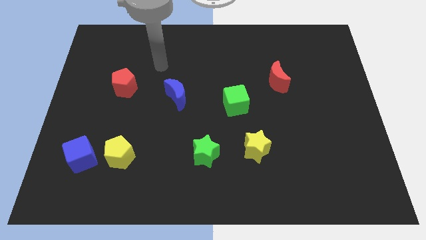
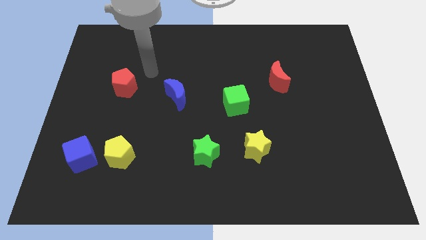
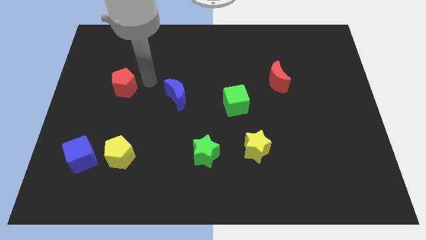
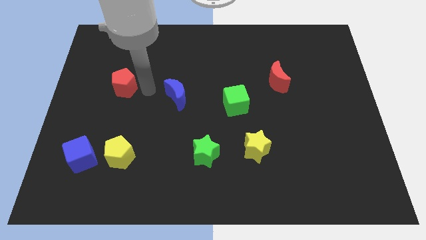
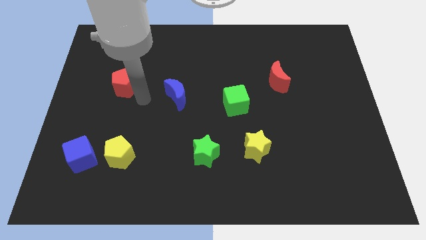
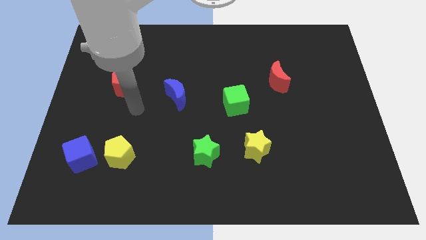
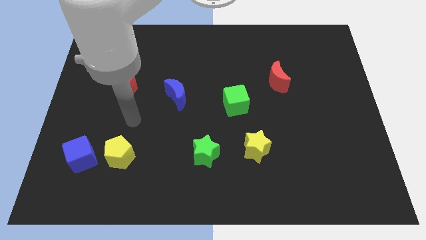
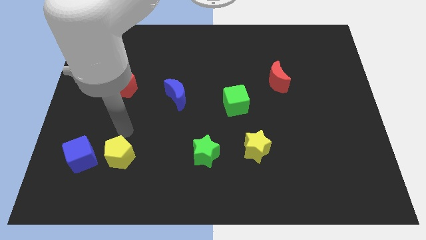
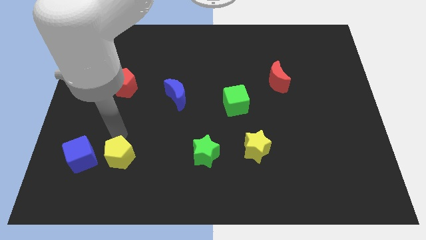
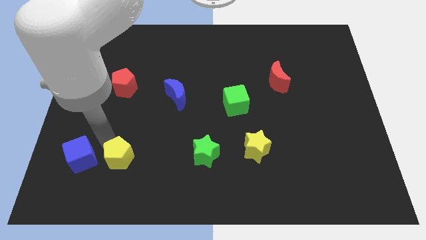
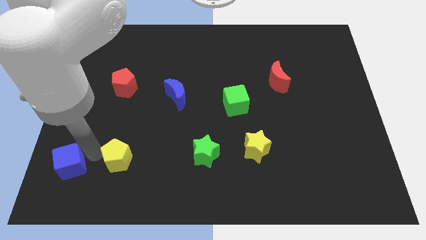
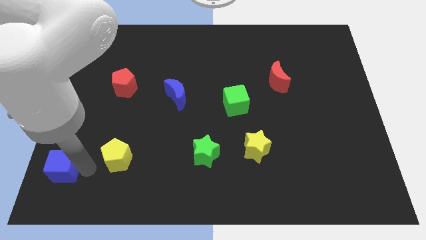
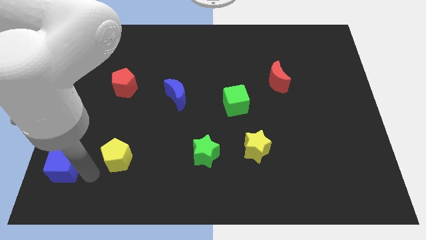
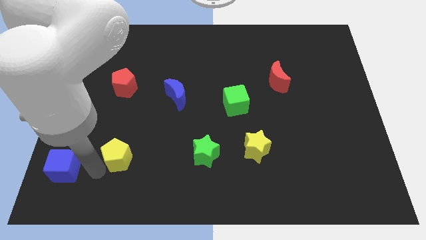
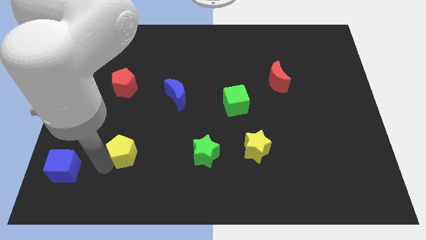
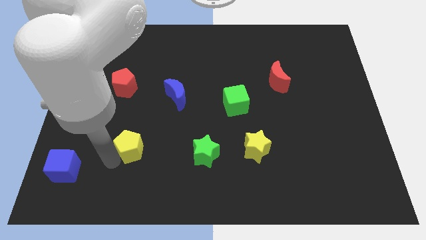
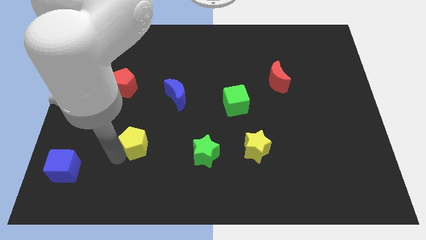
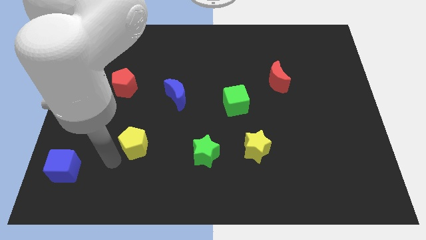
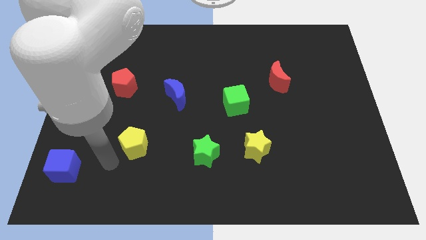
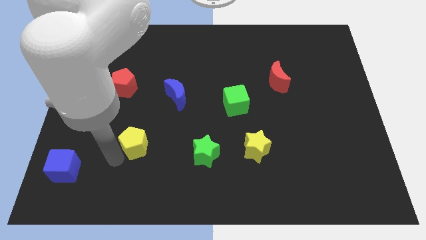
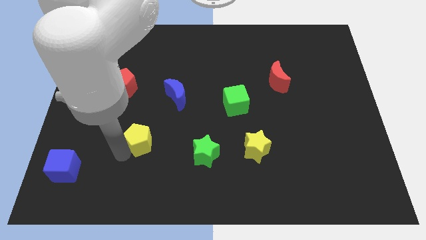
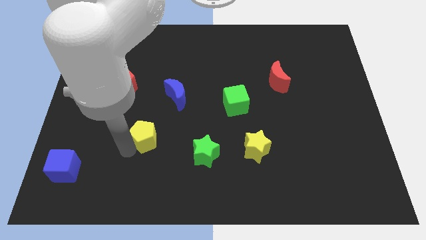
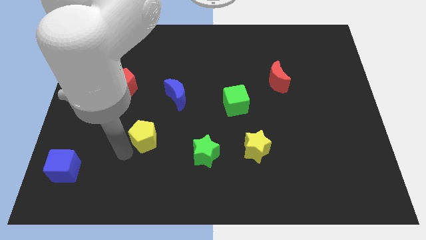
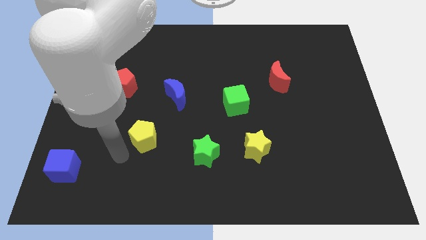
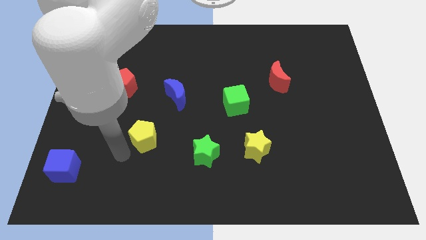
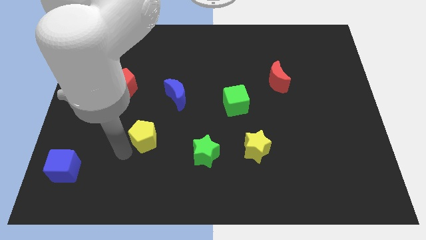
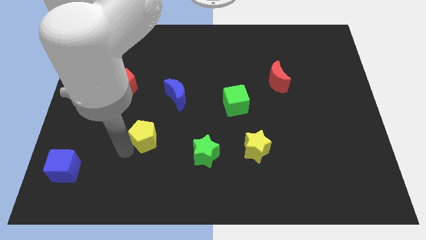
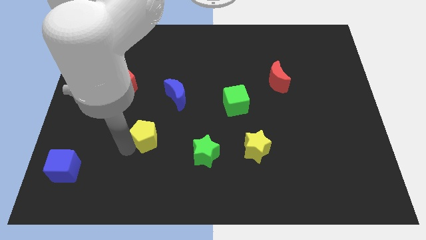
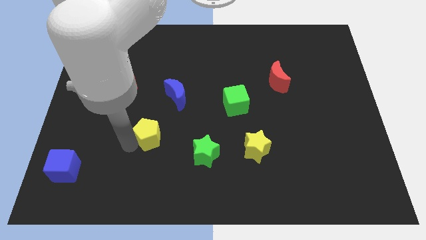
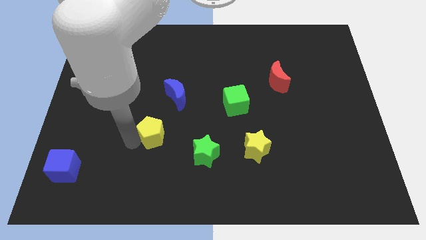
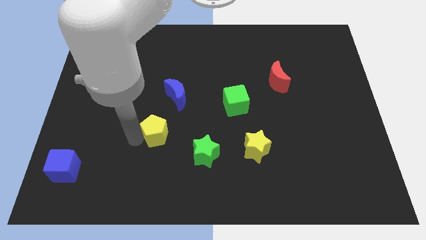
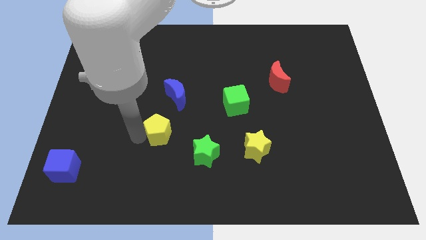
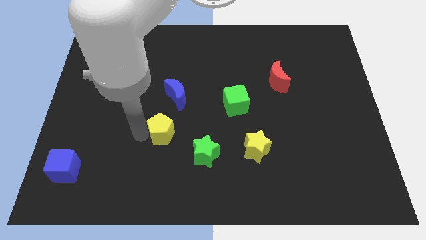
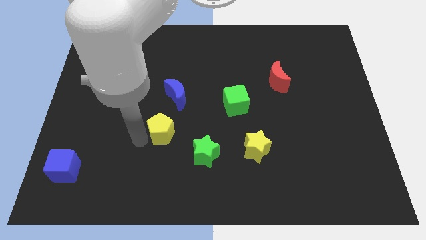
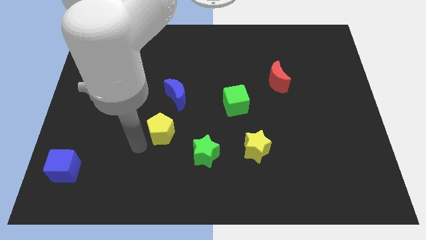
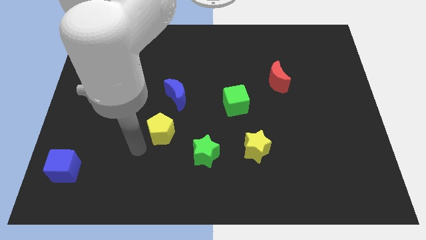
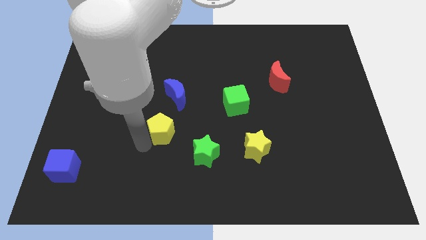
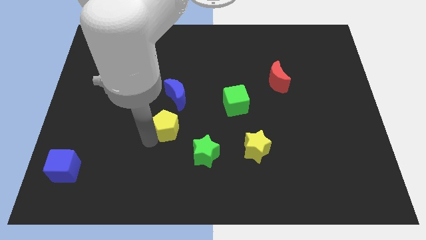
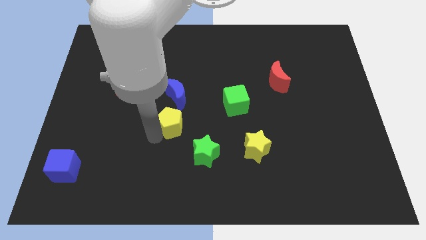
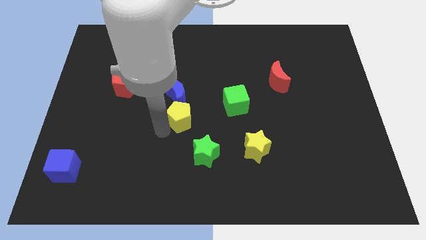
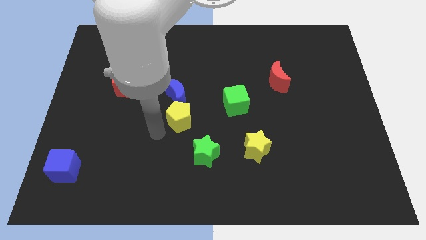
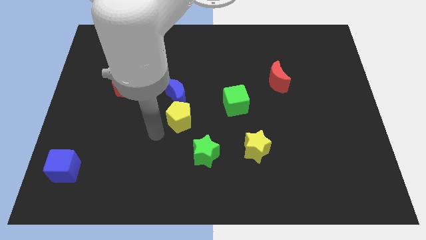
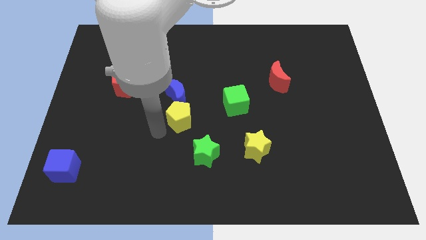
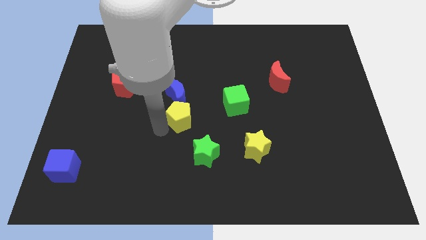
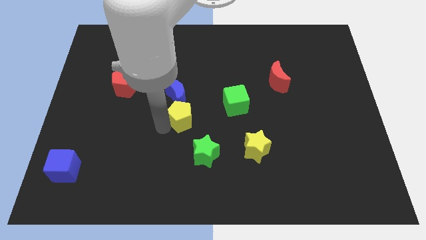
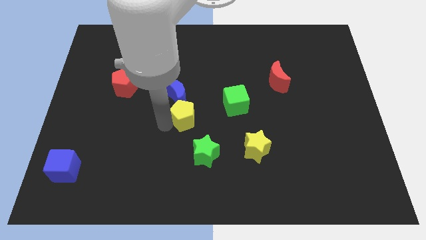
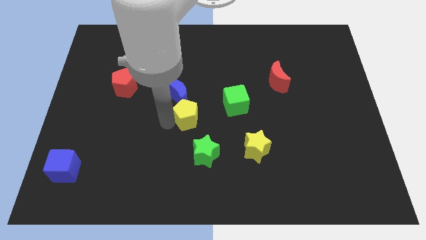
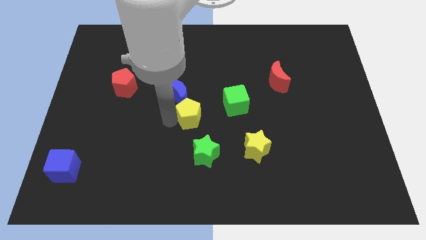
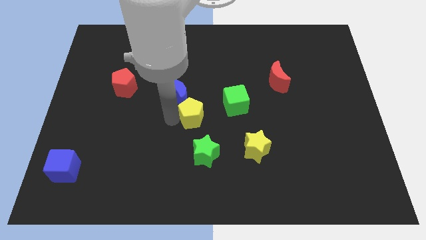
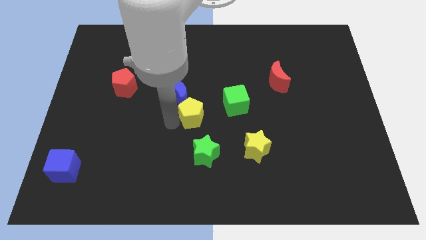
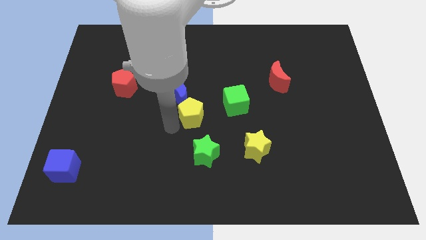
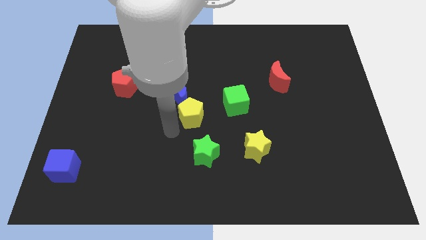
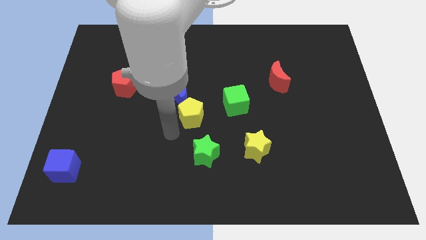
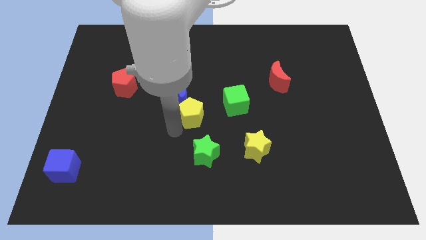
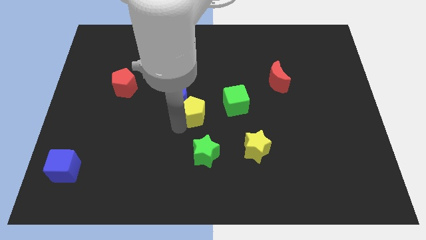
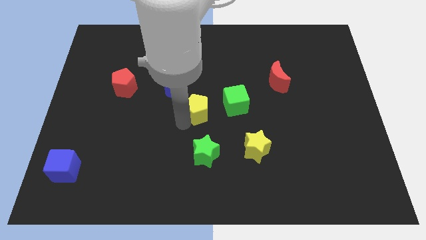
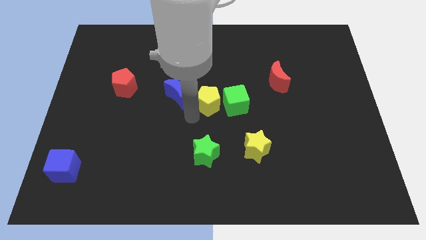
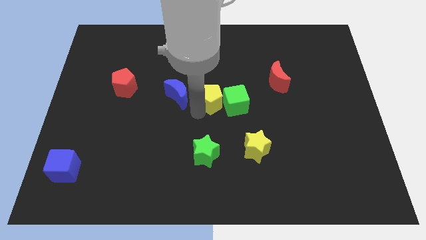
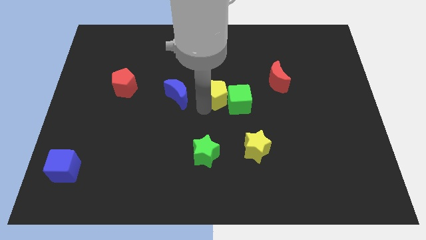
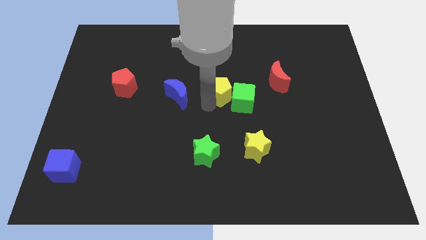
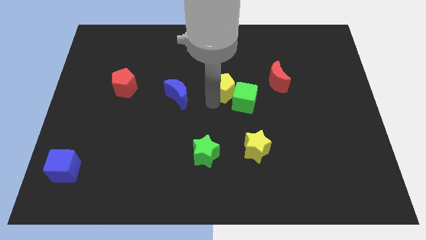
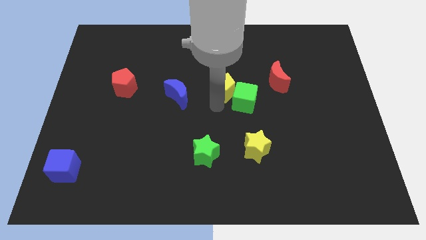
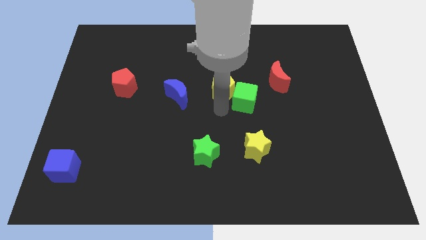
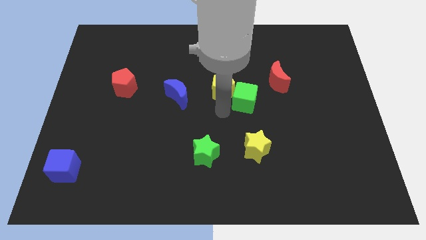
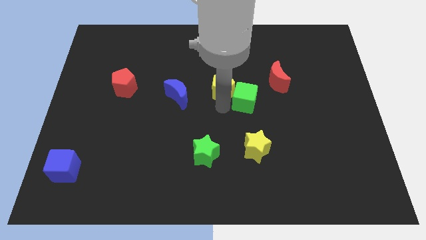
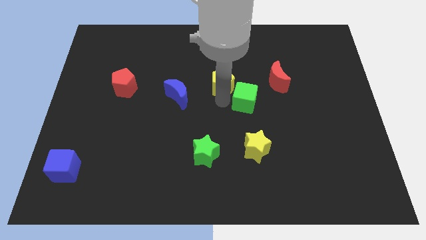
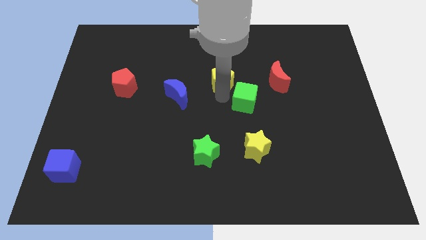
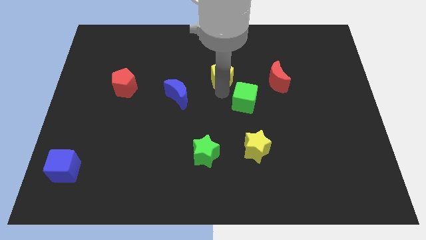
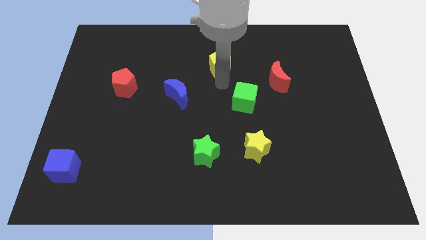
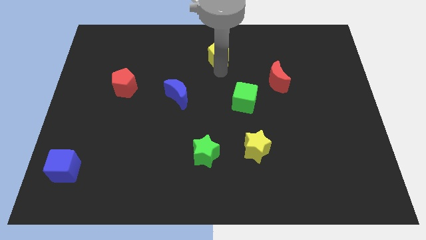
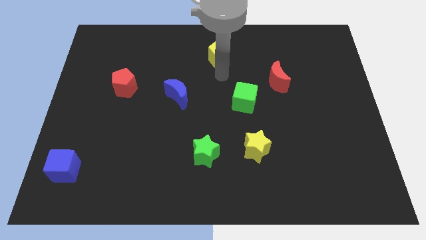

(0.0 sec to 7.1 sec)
put the yellow pentagon to the top side
